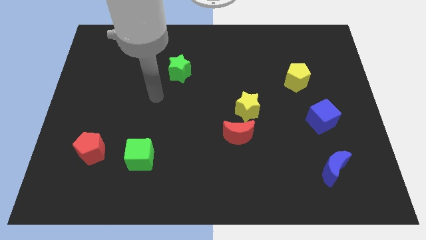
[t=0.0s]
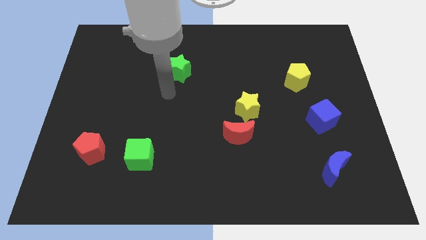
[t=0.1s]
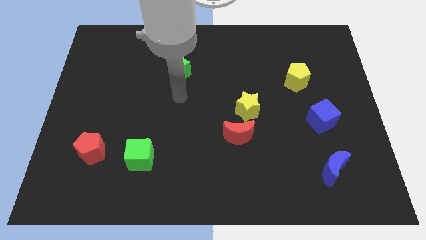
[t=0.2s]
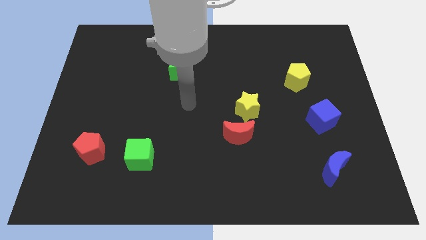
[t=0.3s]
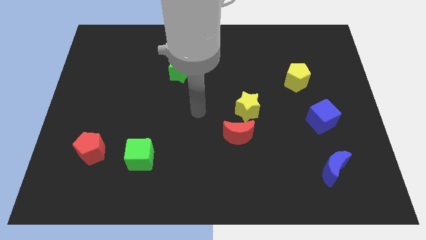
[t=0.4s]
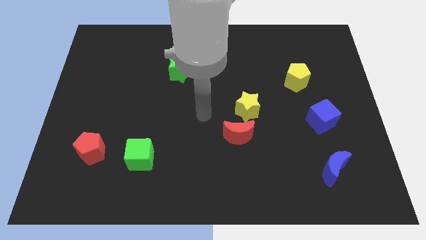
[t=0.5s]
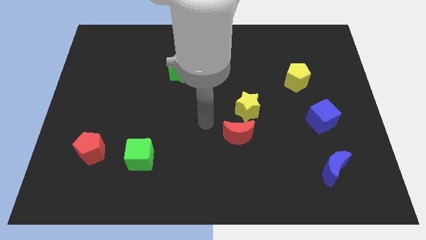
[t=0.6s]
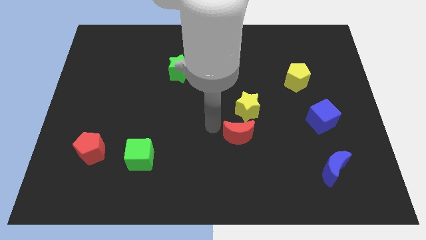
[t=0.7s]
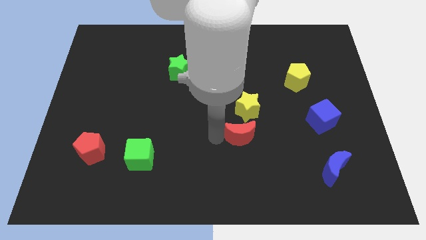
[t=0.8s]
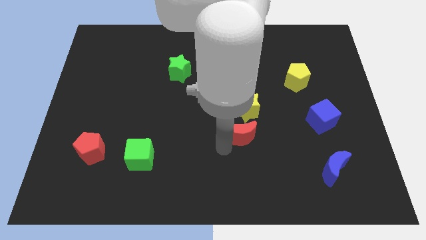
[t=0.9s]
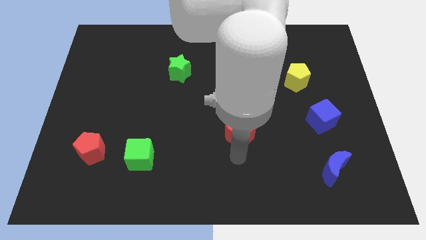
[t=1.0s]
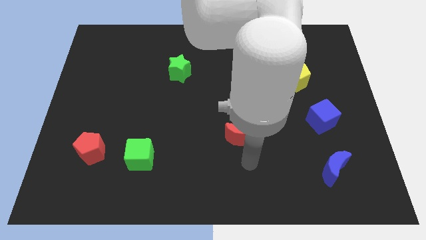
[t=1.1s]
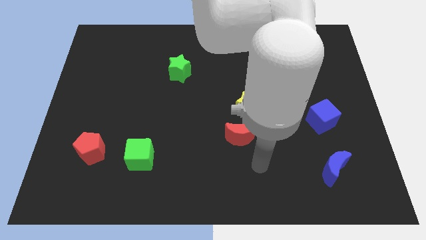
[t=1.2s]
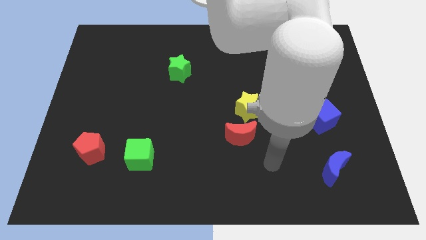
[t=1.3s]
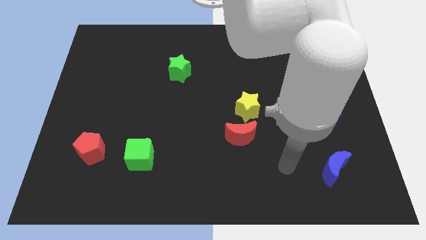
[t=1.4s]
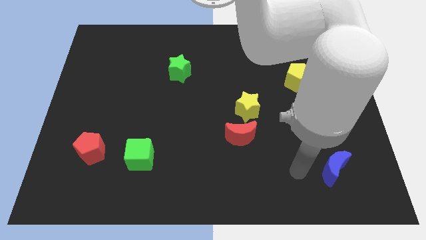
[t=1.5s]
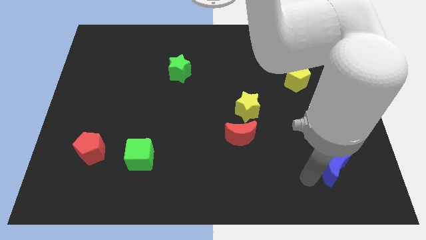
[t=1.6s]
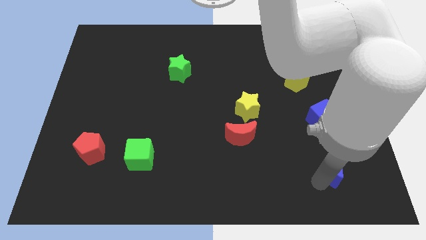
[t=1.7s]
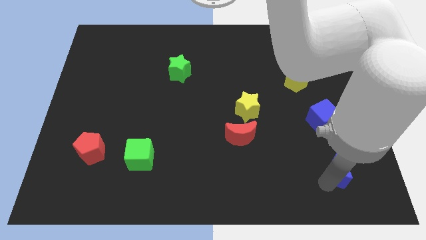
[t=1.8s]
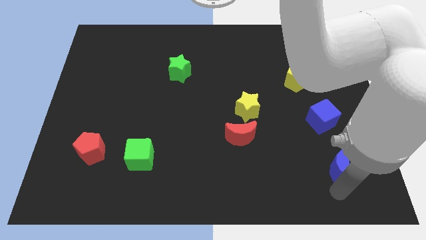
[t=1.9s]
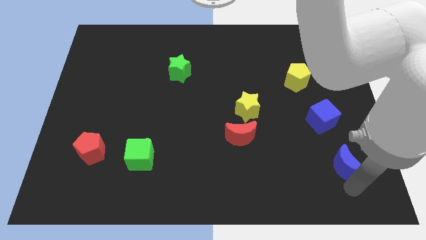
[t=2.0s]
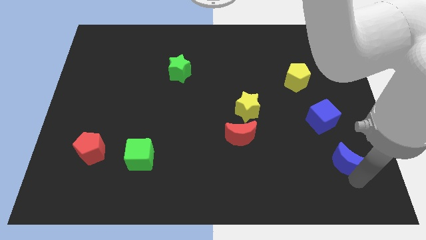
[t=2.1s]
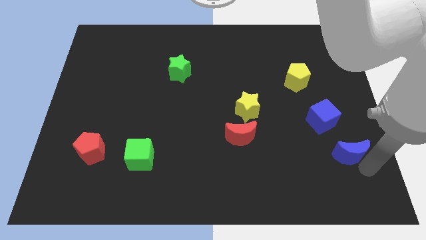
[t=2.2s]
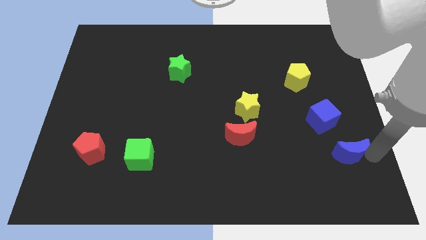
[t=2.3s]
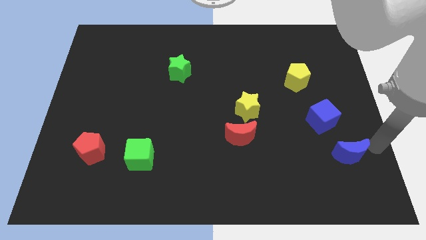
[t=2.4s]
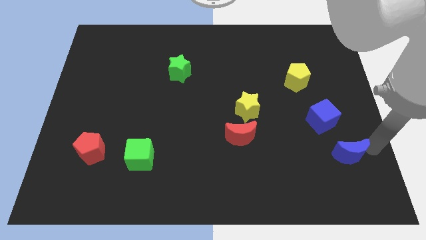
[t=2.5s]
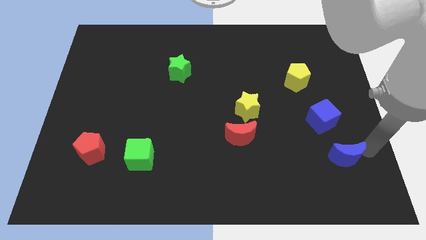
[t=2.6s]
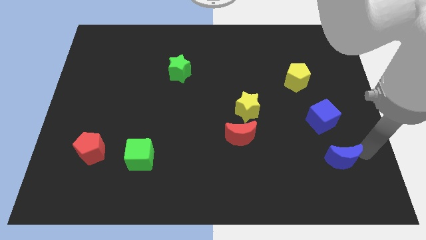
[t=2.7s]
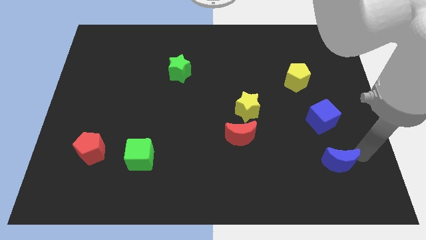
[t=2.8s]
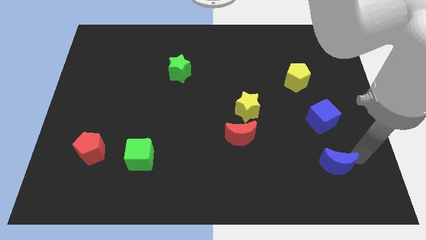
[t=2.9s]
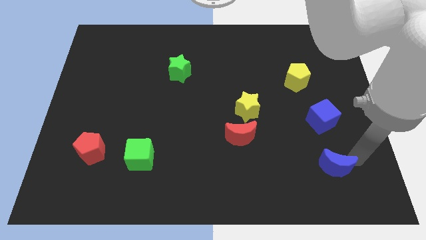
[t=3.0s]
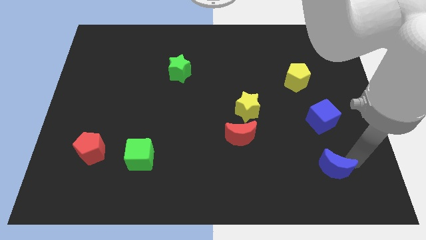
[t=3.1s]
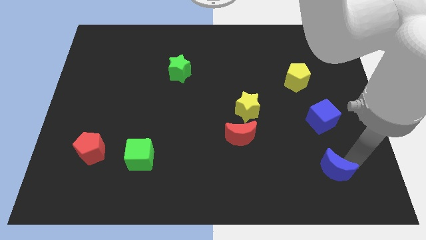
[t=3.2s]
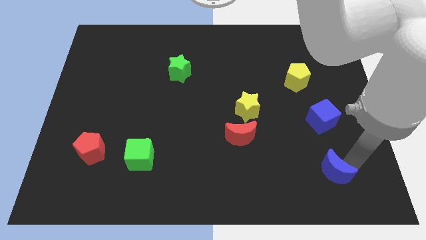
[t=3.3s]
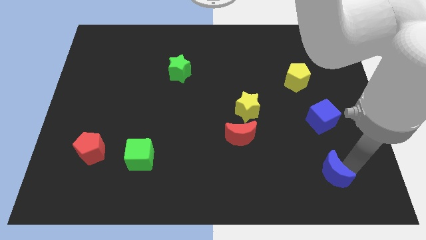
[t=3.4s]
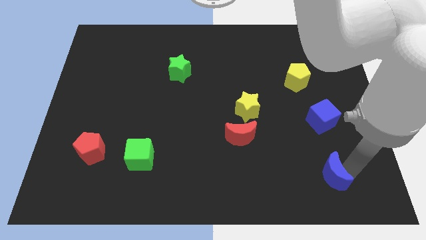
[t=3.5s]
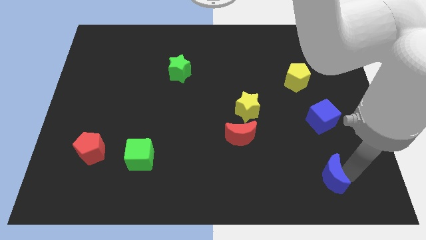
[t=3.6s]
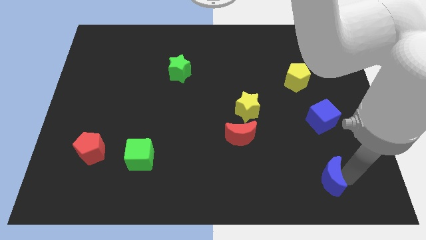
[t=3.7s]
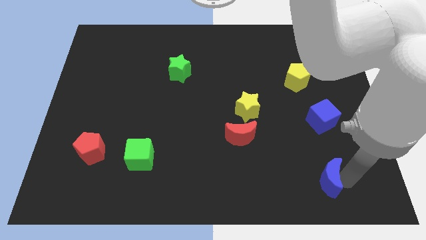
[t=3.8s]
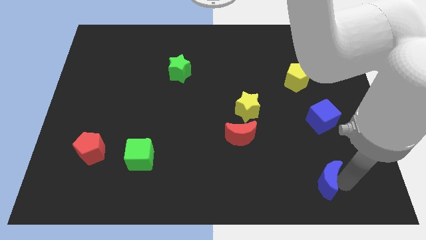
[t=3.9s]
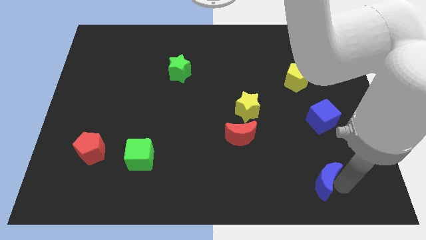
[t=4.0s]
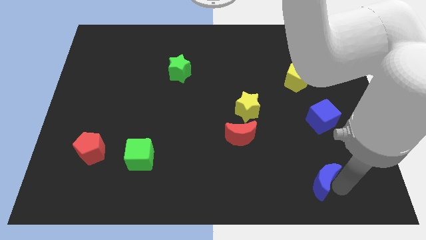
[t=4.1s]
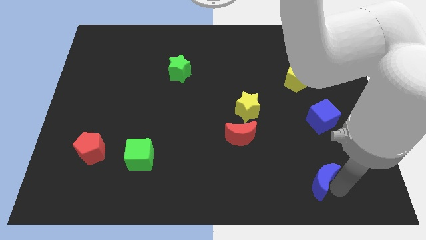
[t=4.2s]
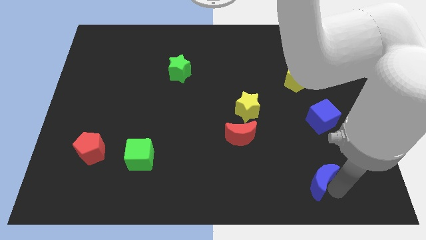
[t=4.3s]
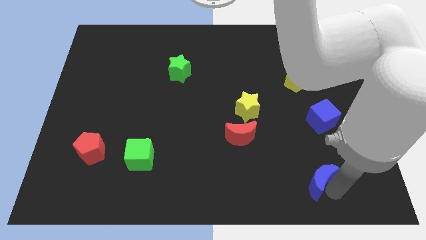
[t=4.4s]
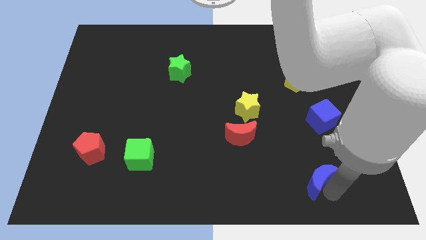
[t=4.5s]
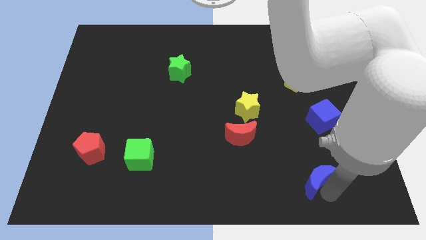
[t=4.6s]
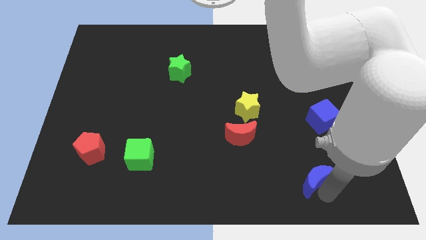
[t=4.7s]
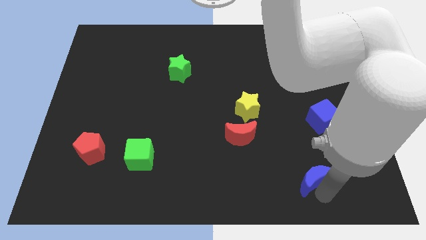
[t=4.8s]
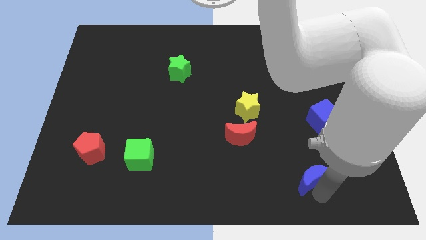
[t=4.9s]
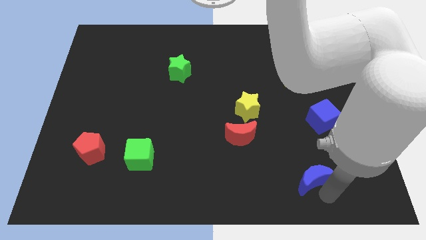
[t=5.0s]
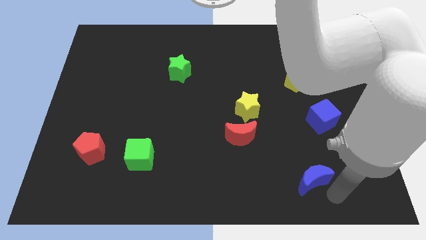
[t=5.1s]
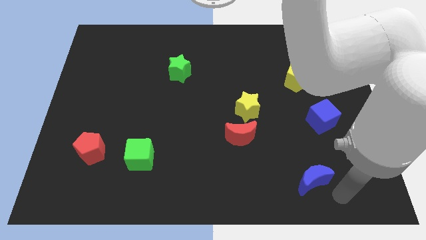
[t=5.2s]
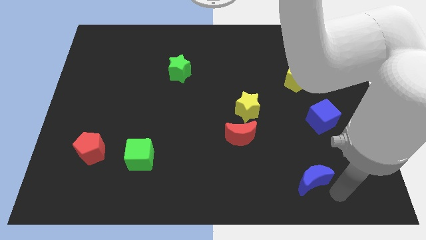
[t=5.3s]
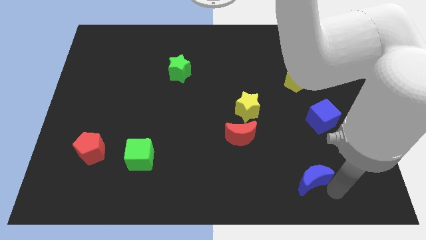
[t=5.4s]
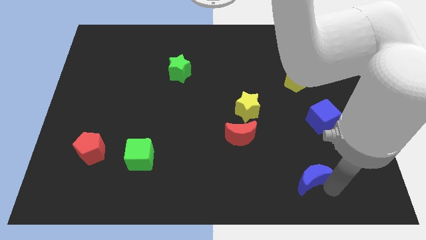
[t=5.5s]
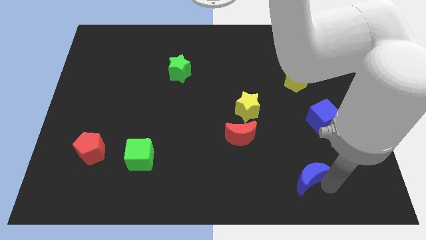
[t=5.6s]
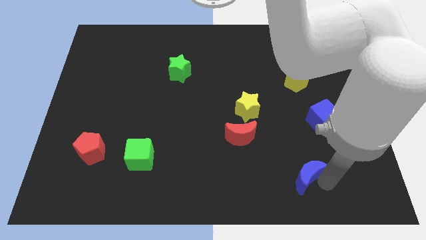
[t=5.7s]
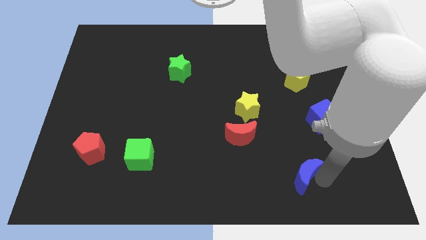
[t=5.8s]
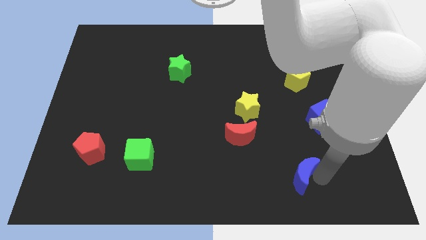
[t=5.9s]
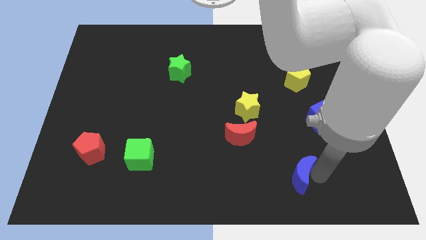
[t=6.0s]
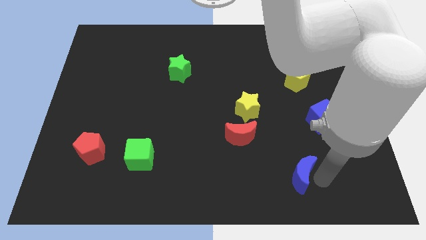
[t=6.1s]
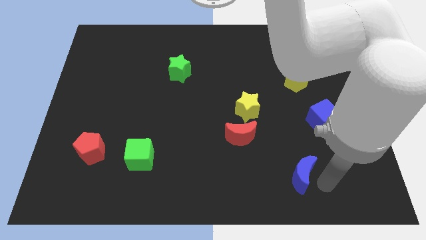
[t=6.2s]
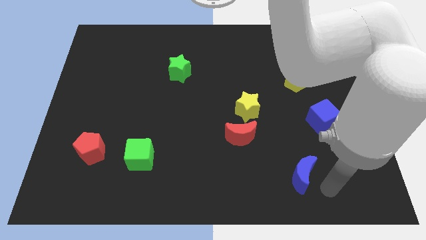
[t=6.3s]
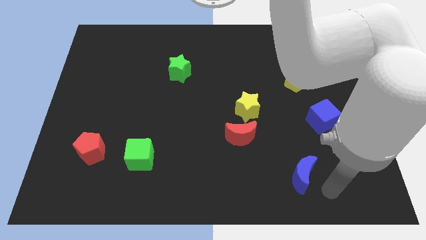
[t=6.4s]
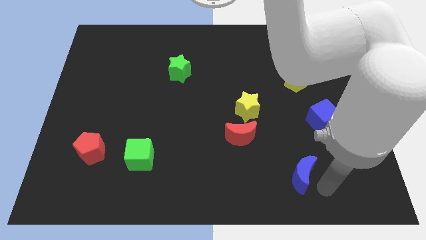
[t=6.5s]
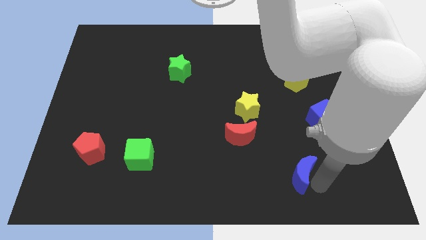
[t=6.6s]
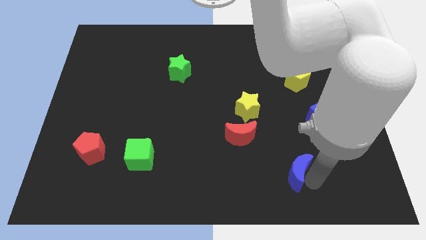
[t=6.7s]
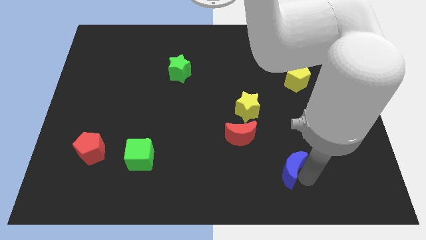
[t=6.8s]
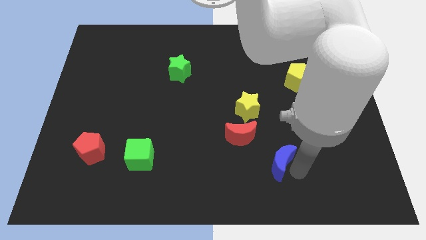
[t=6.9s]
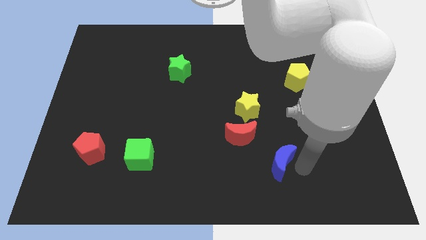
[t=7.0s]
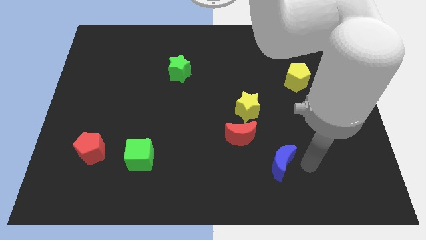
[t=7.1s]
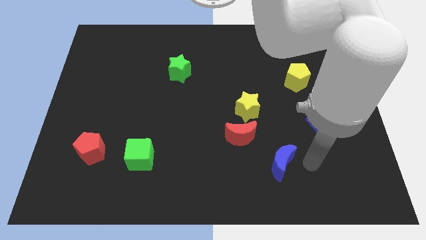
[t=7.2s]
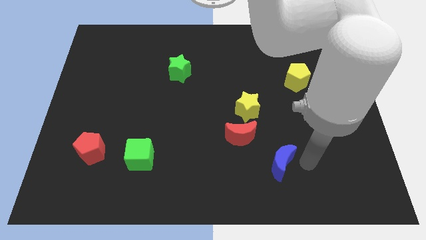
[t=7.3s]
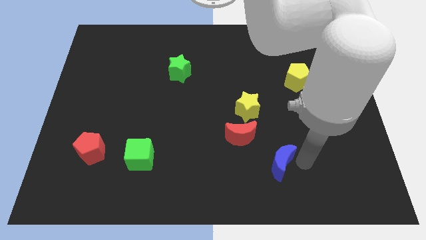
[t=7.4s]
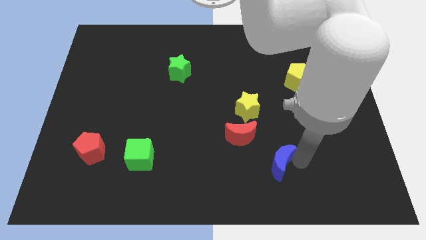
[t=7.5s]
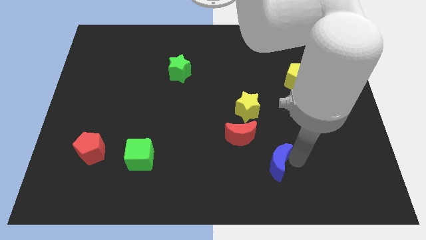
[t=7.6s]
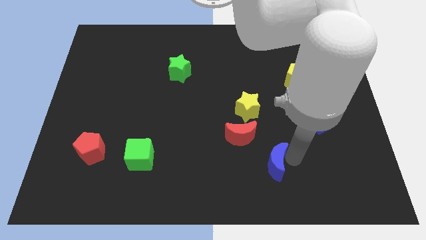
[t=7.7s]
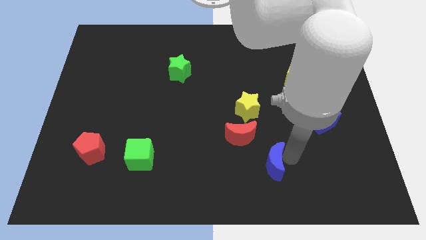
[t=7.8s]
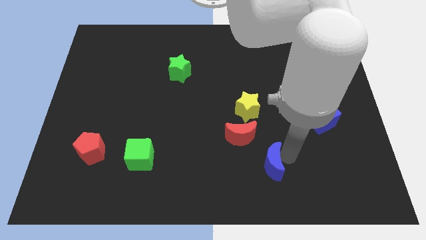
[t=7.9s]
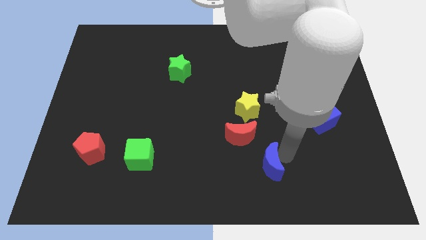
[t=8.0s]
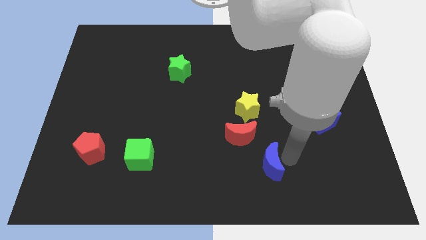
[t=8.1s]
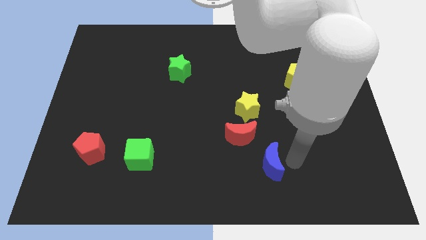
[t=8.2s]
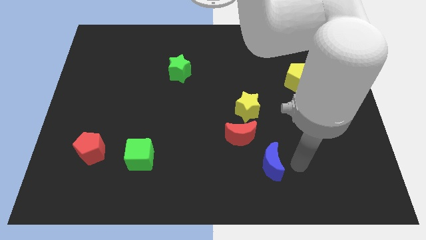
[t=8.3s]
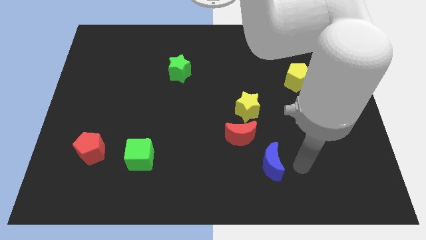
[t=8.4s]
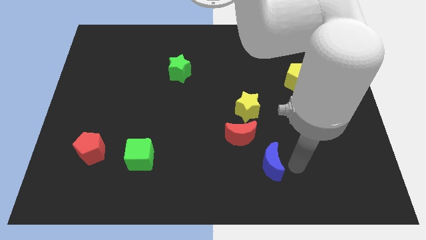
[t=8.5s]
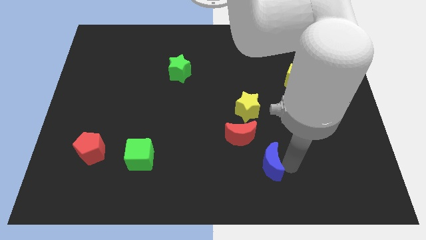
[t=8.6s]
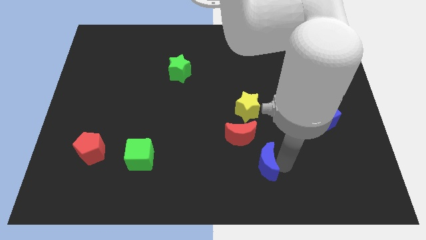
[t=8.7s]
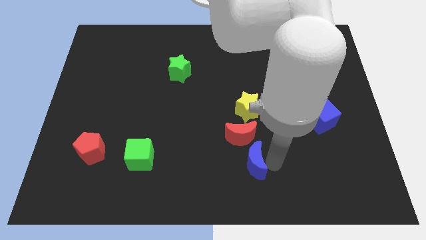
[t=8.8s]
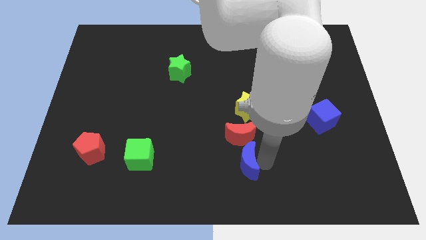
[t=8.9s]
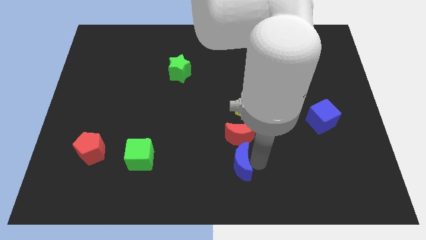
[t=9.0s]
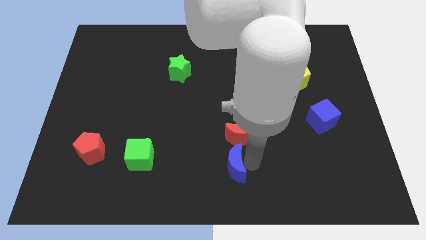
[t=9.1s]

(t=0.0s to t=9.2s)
push the blue moon left
